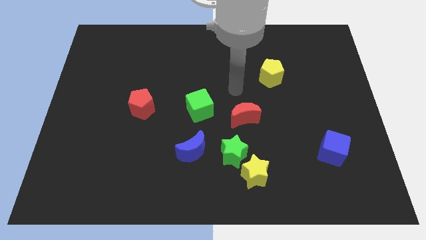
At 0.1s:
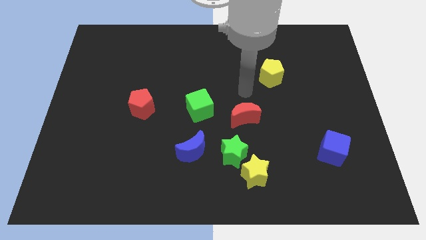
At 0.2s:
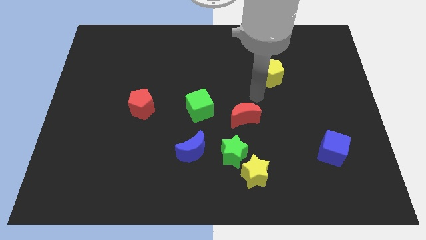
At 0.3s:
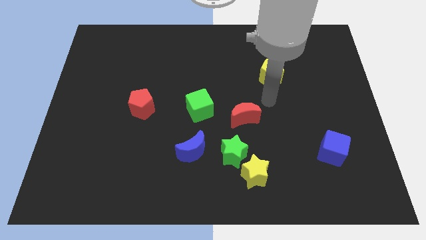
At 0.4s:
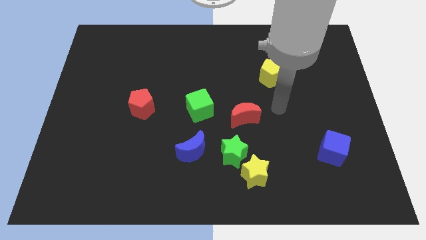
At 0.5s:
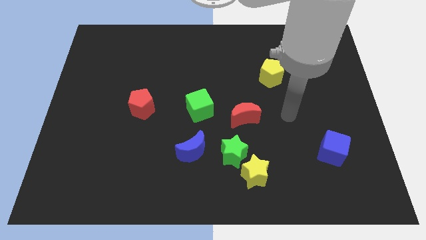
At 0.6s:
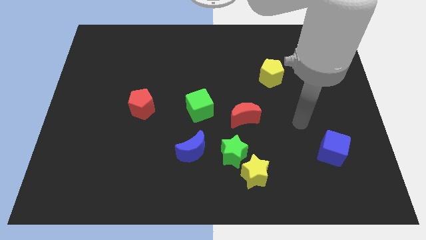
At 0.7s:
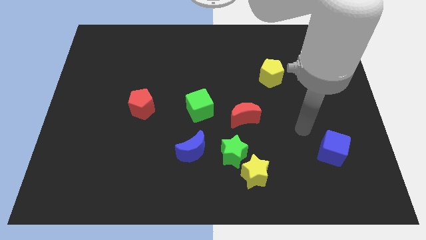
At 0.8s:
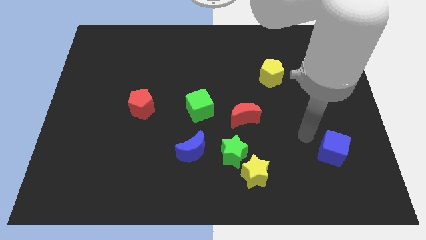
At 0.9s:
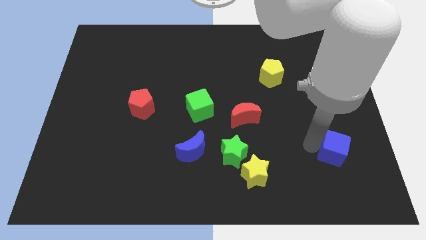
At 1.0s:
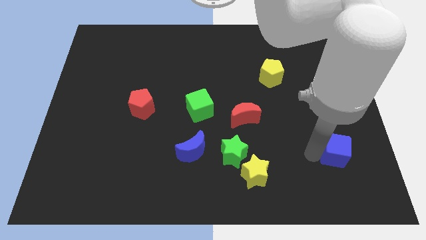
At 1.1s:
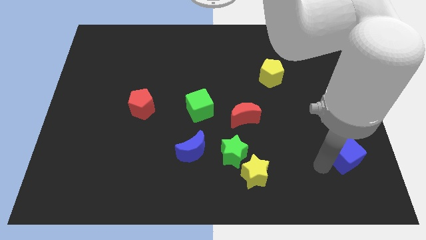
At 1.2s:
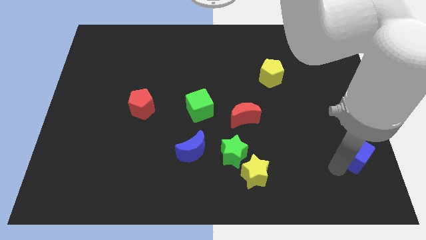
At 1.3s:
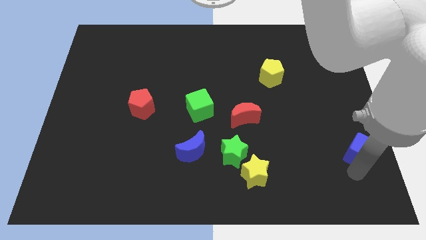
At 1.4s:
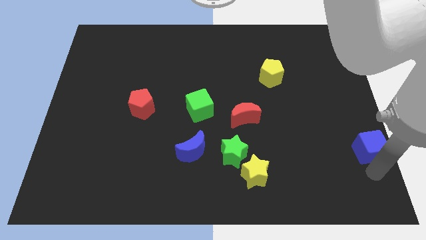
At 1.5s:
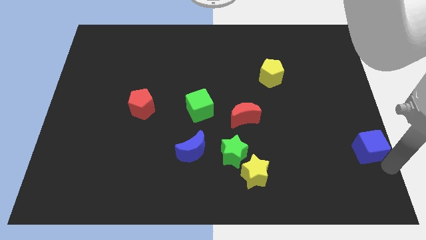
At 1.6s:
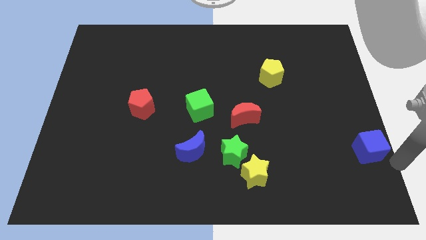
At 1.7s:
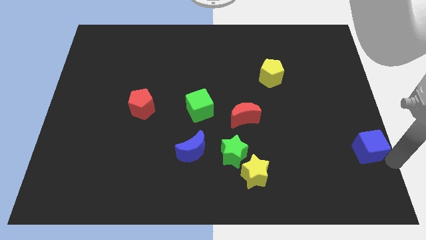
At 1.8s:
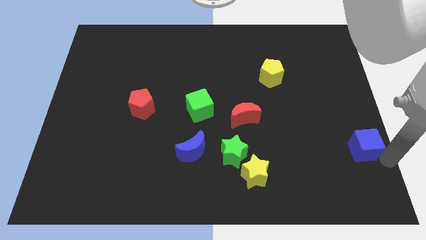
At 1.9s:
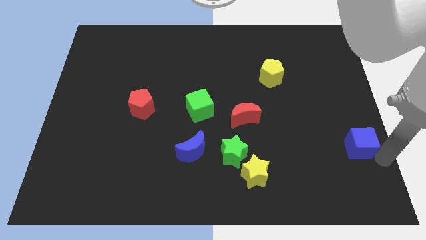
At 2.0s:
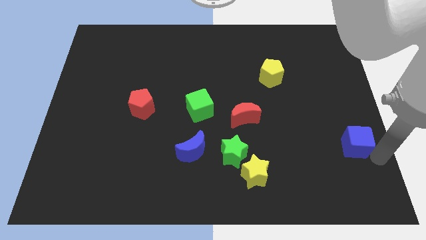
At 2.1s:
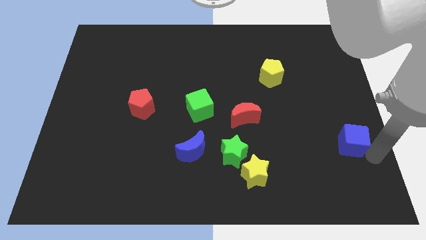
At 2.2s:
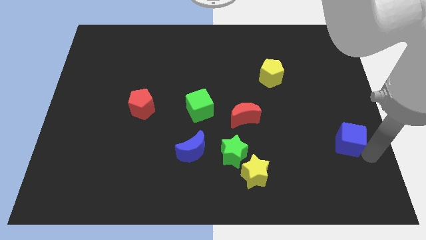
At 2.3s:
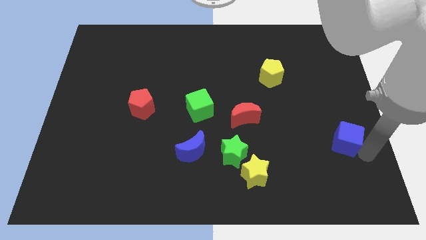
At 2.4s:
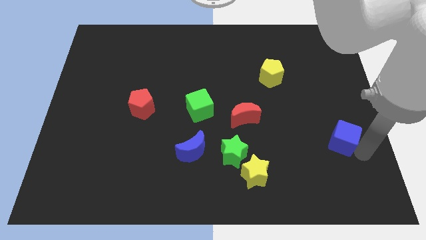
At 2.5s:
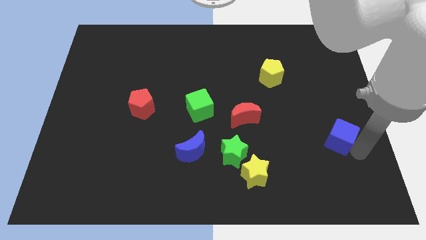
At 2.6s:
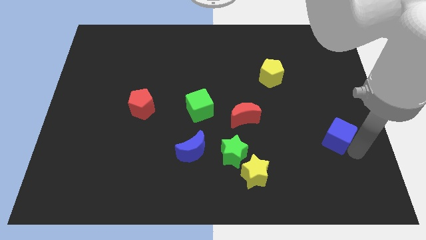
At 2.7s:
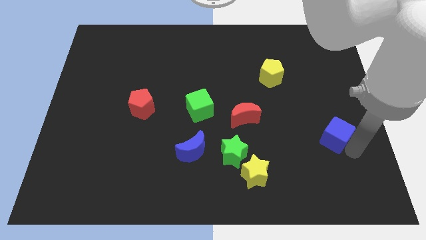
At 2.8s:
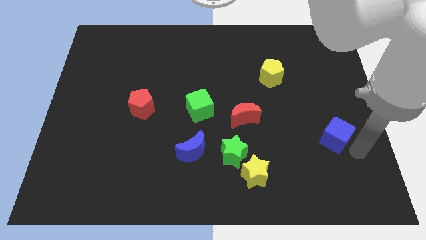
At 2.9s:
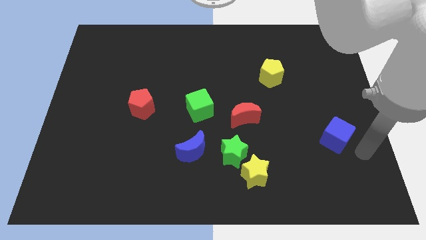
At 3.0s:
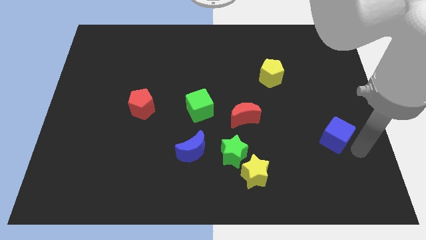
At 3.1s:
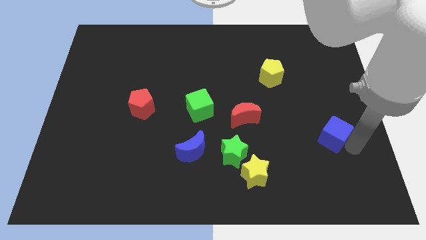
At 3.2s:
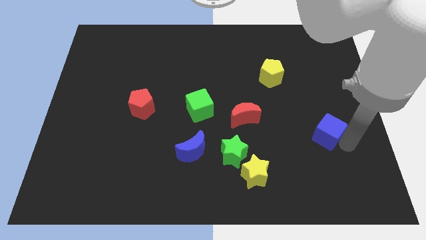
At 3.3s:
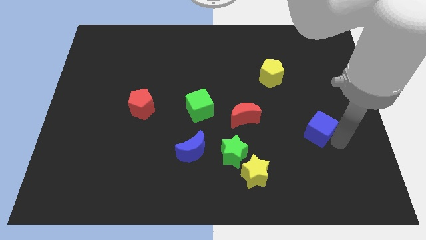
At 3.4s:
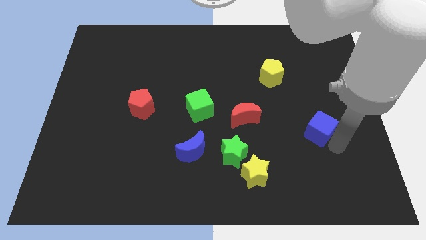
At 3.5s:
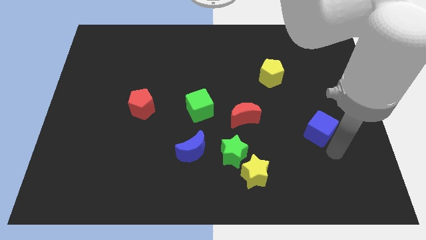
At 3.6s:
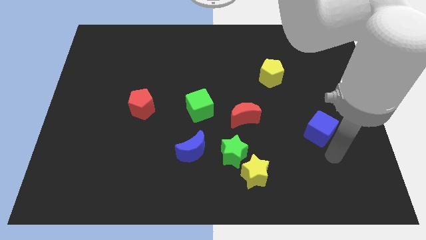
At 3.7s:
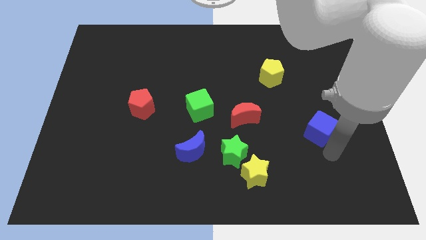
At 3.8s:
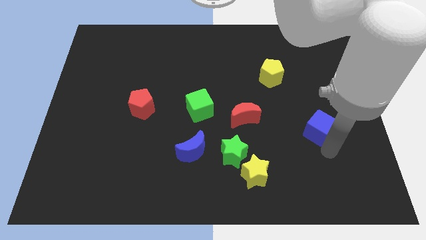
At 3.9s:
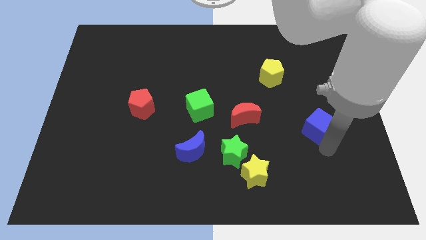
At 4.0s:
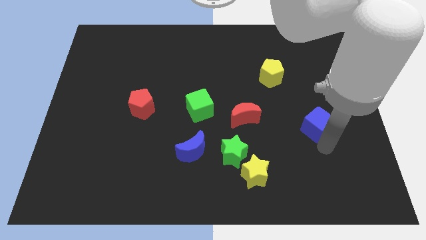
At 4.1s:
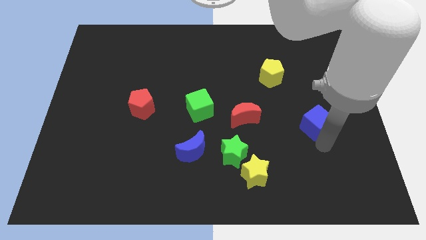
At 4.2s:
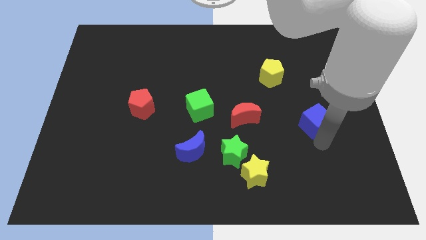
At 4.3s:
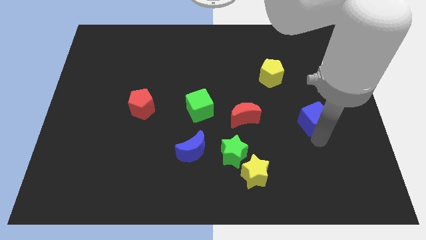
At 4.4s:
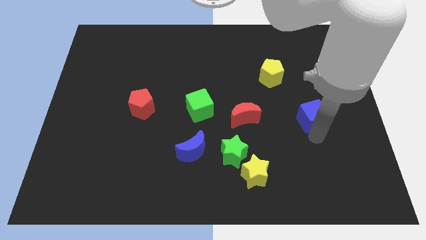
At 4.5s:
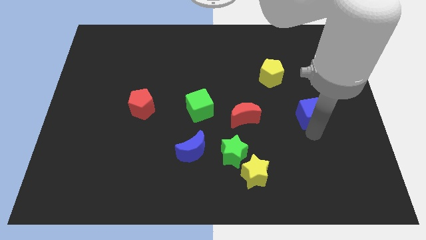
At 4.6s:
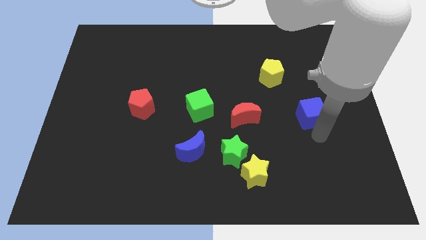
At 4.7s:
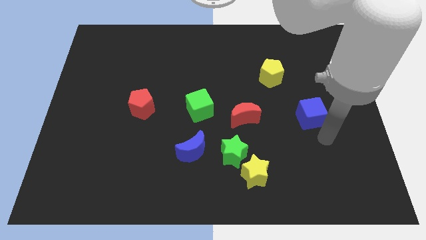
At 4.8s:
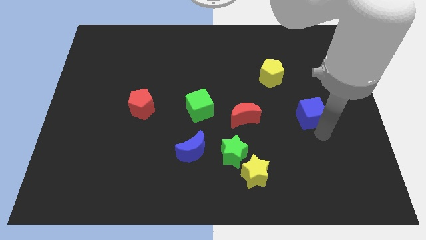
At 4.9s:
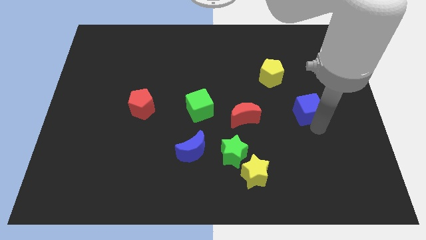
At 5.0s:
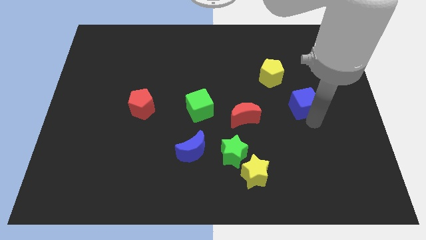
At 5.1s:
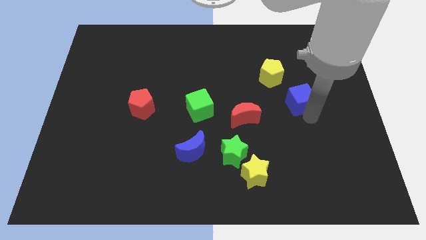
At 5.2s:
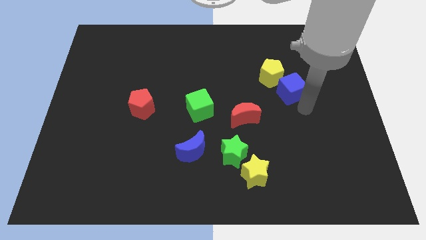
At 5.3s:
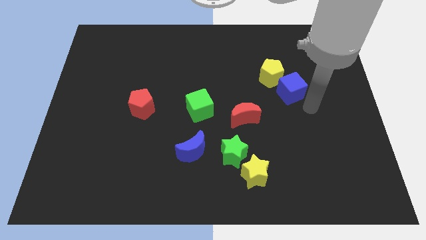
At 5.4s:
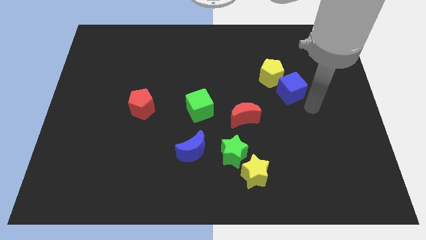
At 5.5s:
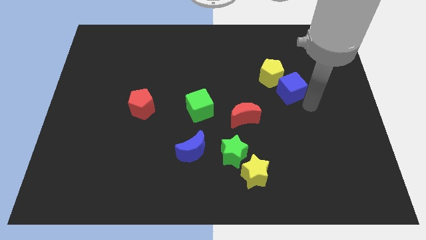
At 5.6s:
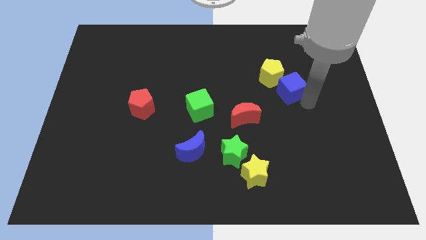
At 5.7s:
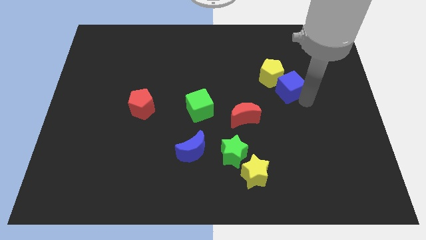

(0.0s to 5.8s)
move the blue cube close to the yellow pentagon

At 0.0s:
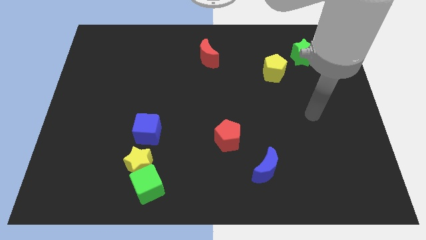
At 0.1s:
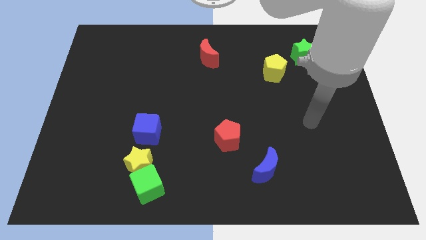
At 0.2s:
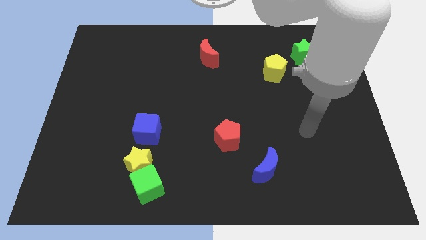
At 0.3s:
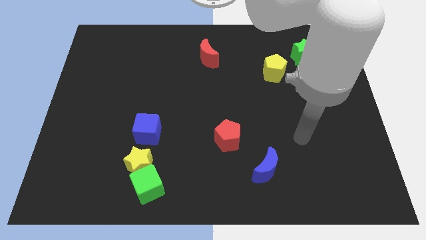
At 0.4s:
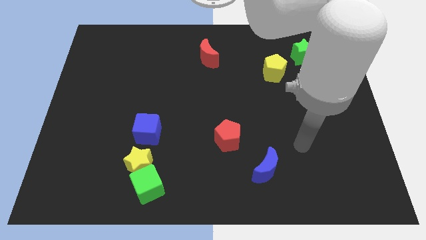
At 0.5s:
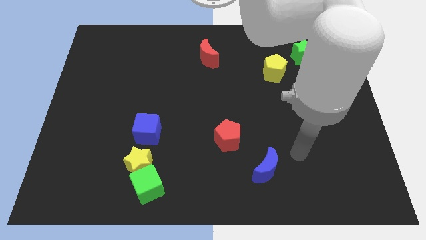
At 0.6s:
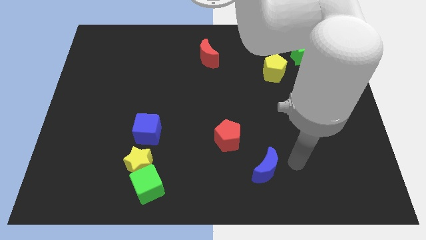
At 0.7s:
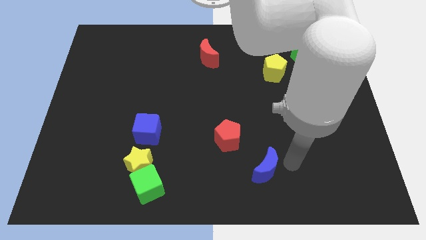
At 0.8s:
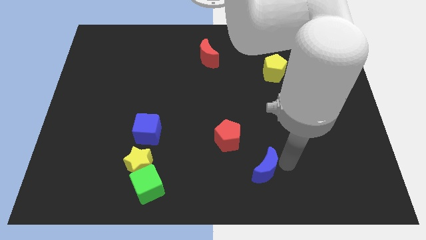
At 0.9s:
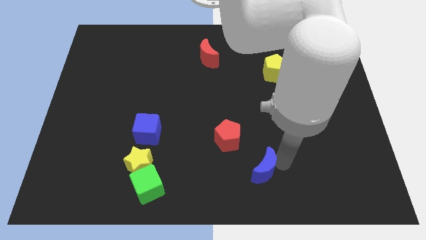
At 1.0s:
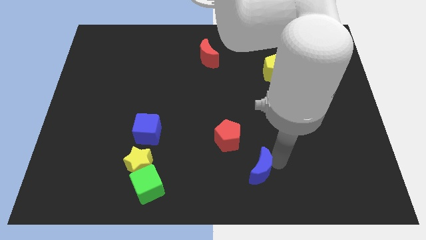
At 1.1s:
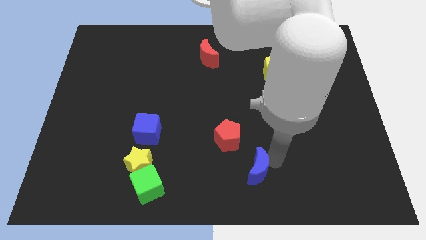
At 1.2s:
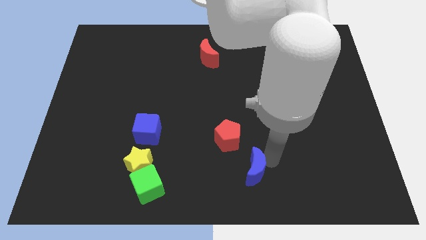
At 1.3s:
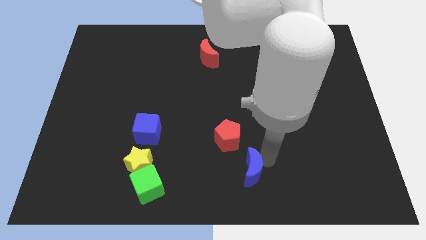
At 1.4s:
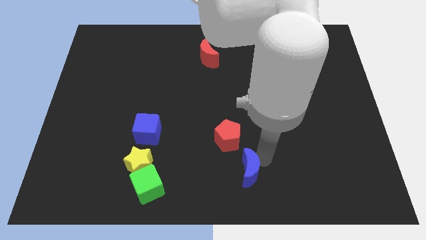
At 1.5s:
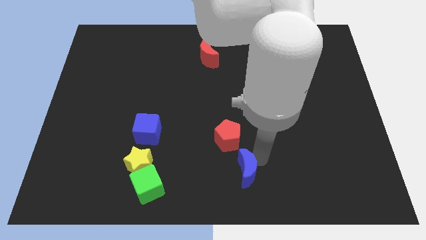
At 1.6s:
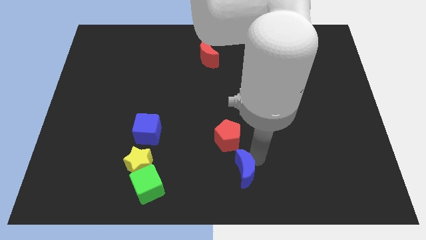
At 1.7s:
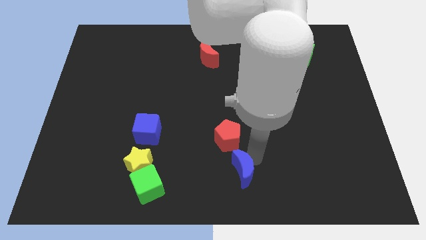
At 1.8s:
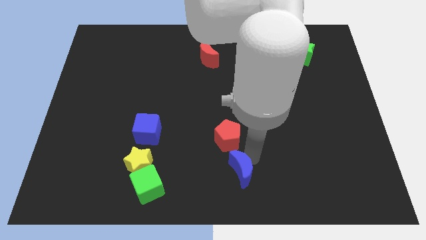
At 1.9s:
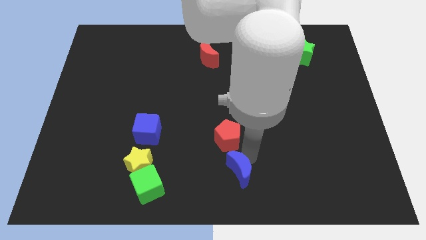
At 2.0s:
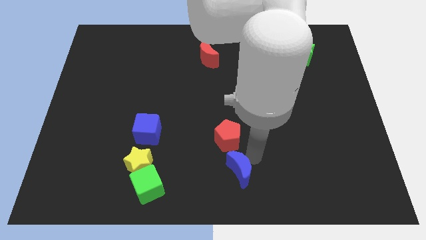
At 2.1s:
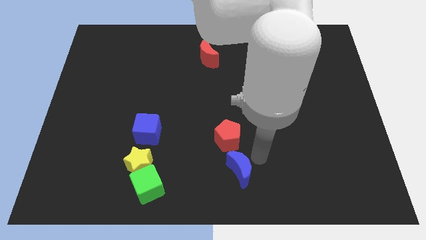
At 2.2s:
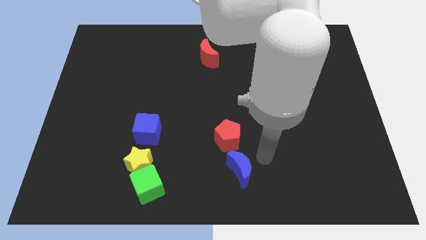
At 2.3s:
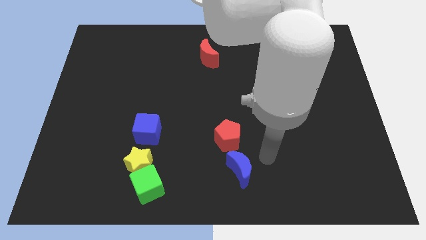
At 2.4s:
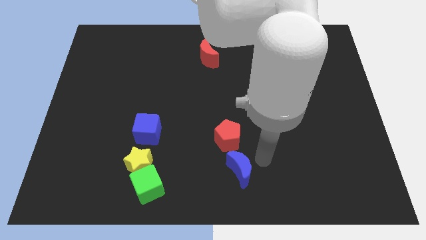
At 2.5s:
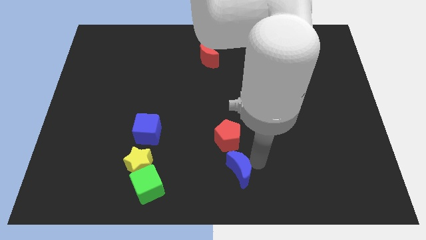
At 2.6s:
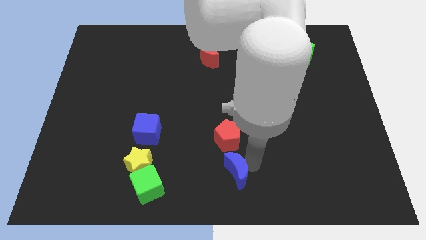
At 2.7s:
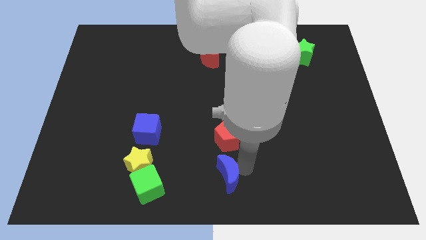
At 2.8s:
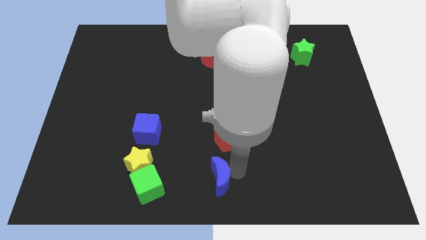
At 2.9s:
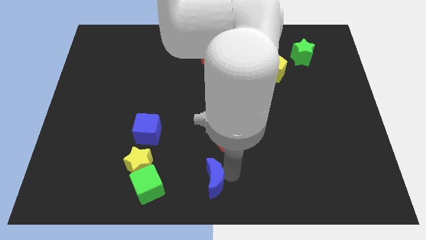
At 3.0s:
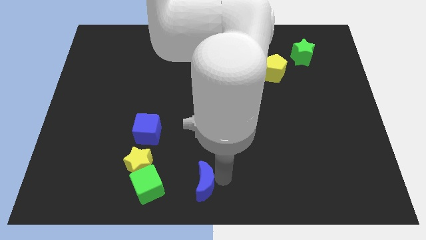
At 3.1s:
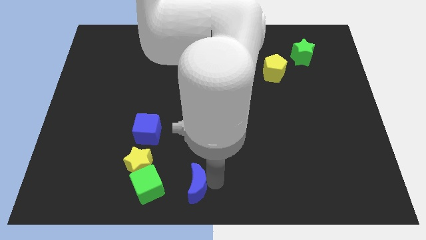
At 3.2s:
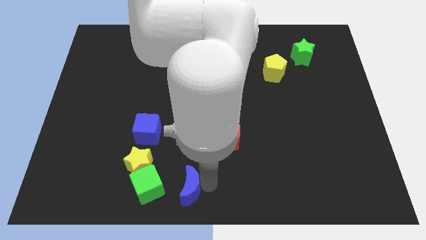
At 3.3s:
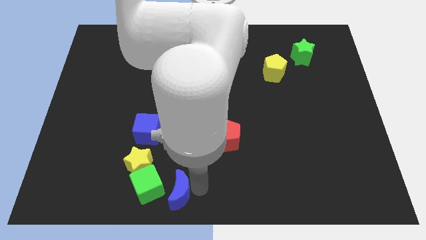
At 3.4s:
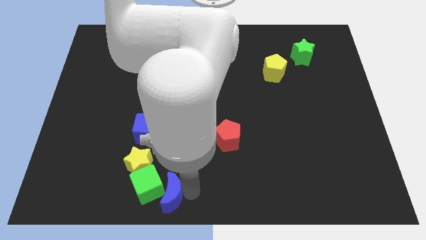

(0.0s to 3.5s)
put the blue moon towards the green cube
